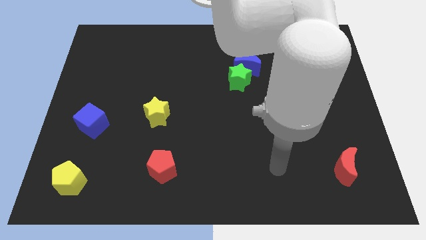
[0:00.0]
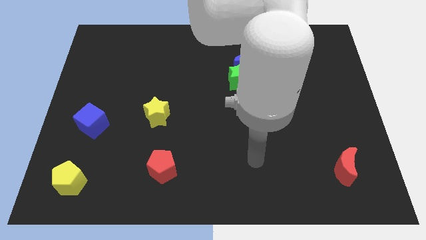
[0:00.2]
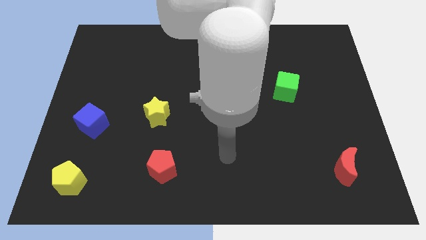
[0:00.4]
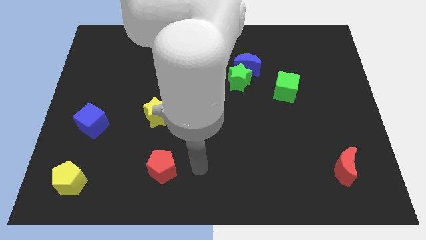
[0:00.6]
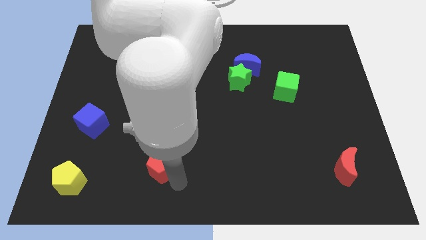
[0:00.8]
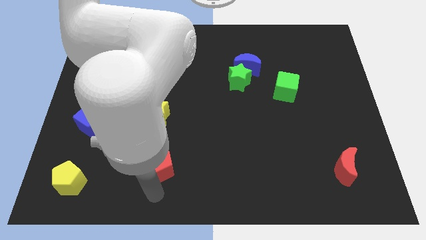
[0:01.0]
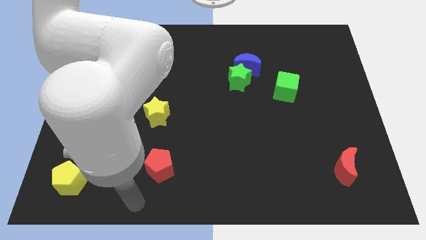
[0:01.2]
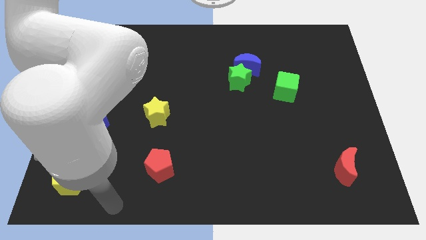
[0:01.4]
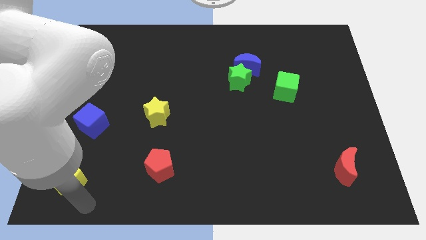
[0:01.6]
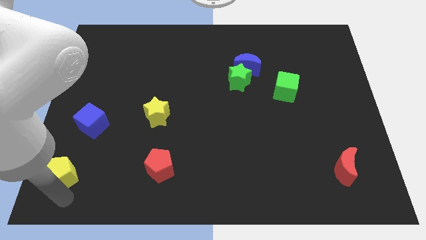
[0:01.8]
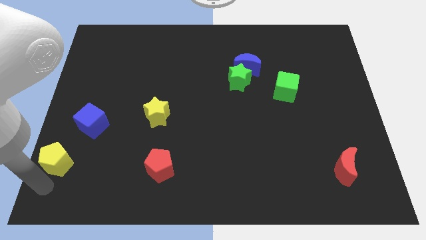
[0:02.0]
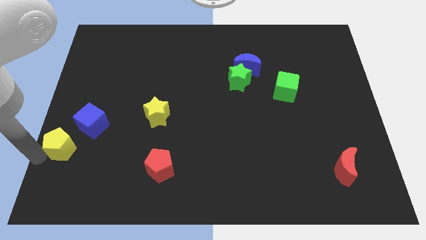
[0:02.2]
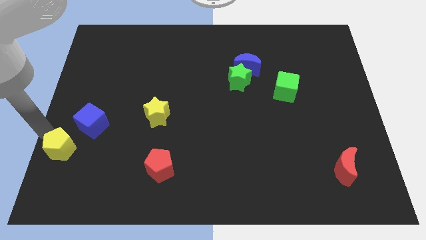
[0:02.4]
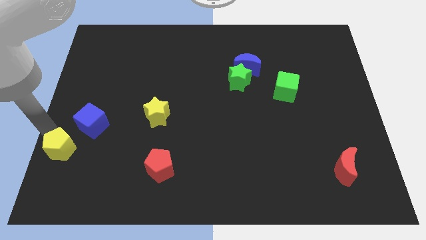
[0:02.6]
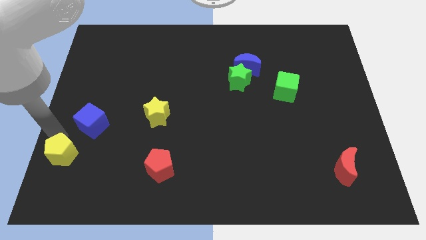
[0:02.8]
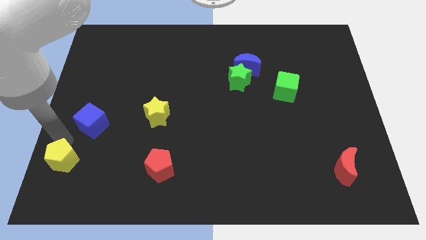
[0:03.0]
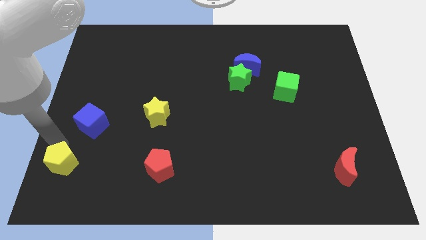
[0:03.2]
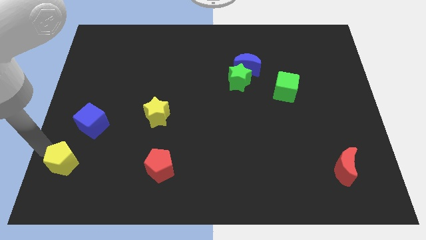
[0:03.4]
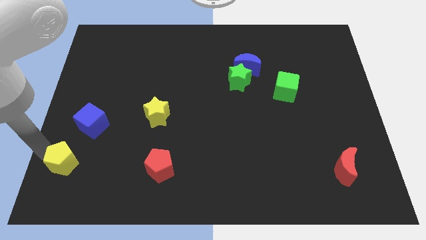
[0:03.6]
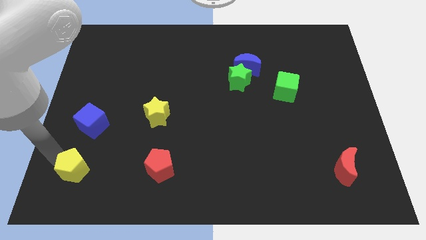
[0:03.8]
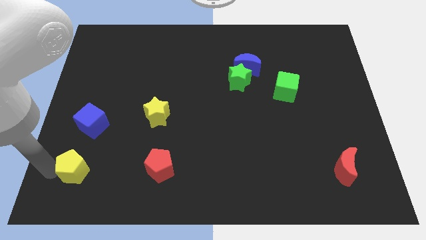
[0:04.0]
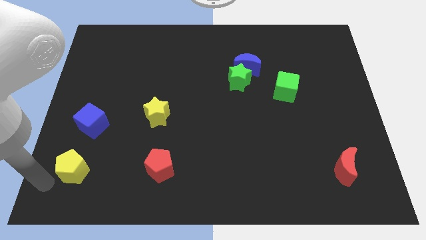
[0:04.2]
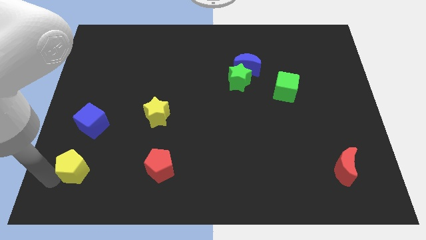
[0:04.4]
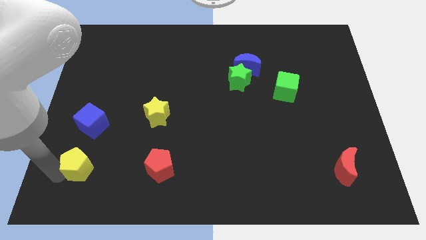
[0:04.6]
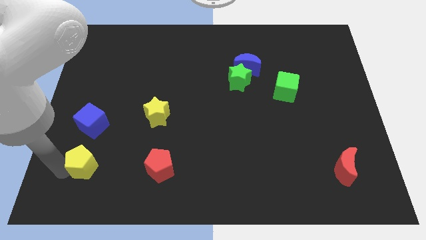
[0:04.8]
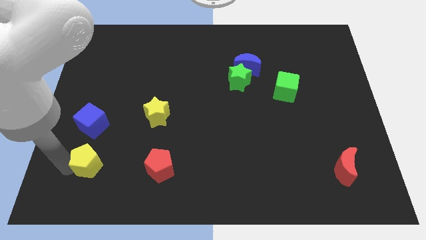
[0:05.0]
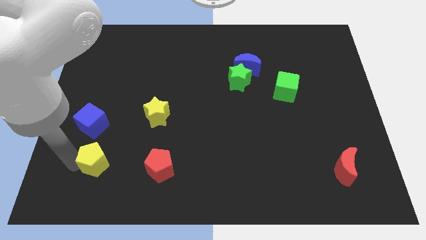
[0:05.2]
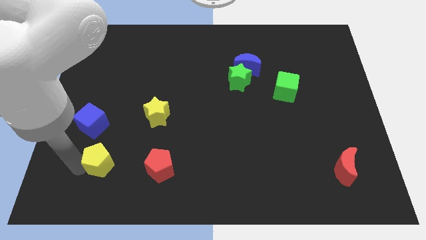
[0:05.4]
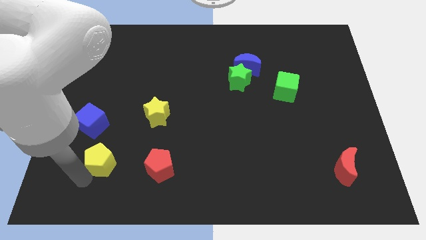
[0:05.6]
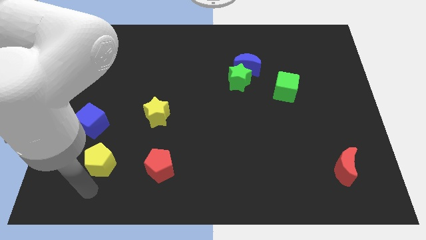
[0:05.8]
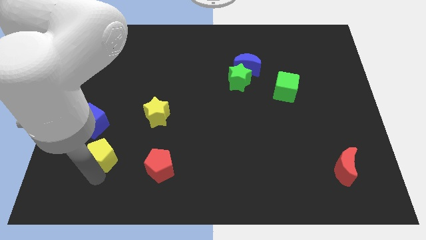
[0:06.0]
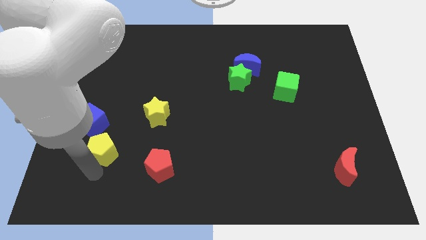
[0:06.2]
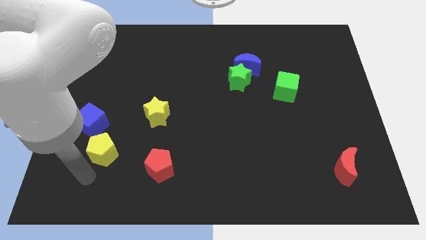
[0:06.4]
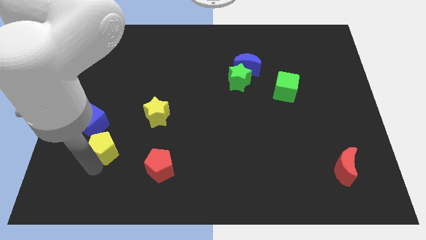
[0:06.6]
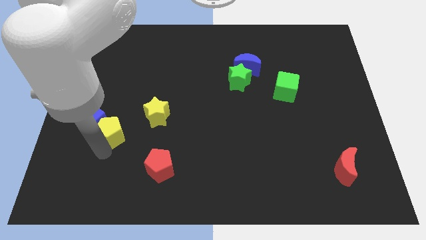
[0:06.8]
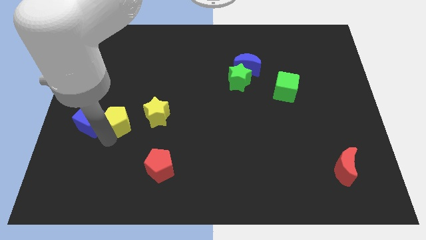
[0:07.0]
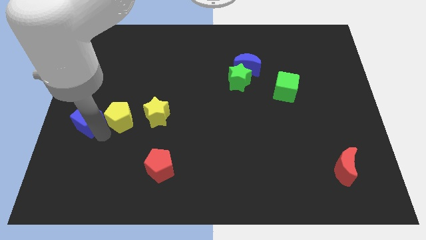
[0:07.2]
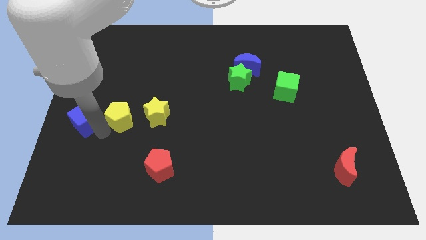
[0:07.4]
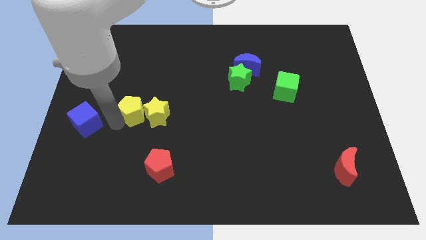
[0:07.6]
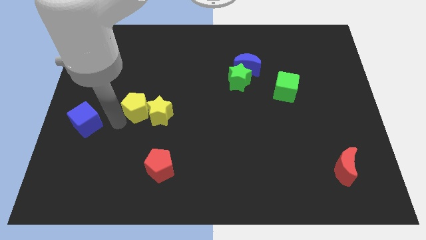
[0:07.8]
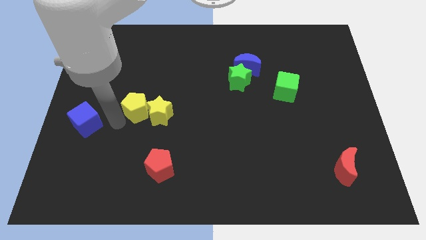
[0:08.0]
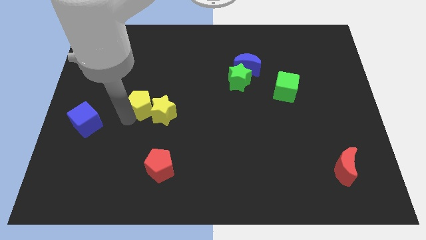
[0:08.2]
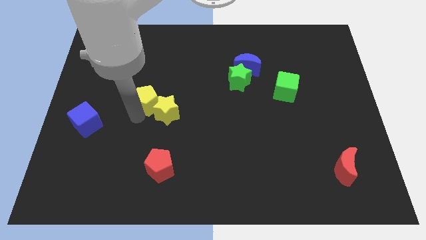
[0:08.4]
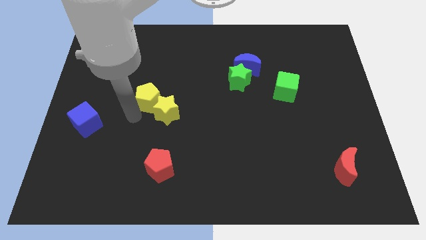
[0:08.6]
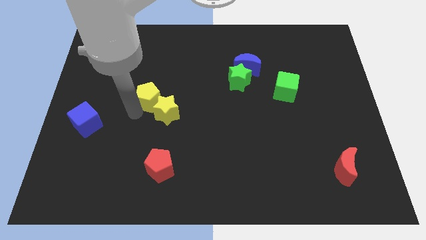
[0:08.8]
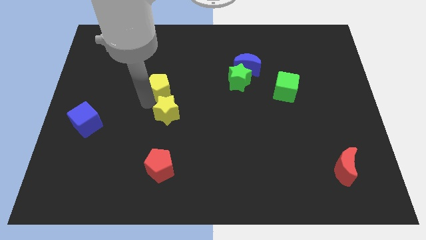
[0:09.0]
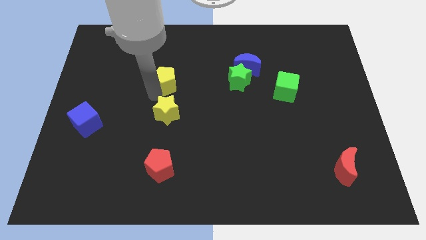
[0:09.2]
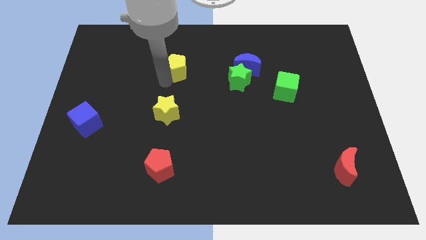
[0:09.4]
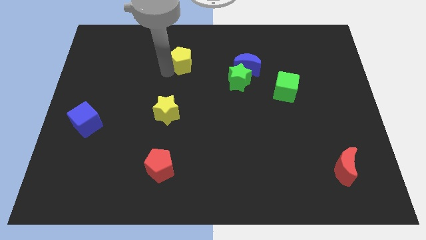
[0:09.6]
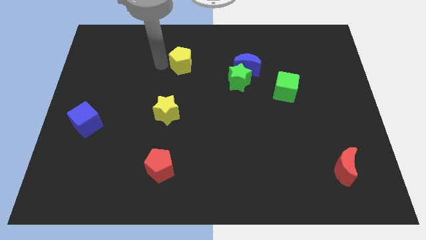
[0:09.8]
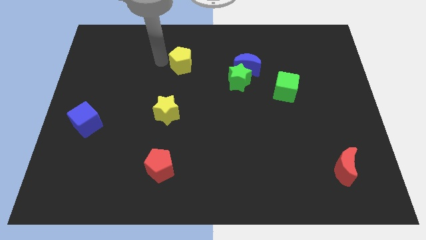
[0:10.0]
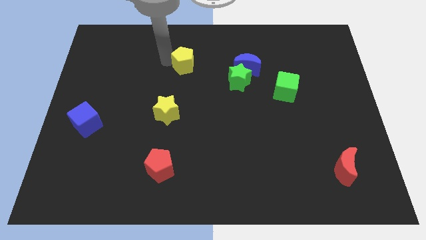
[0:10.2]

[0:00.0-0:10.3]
put the yellow pentagon to the left side of the blue moon

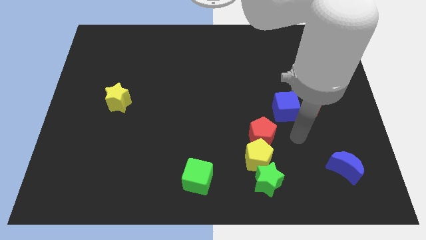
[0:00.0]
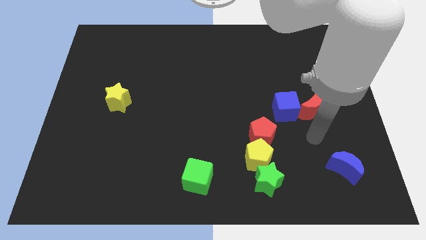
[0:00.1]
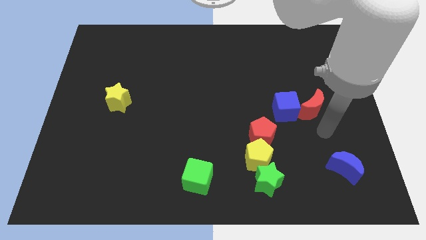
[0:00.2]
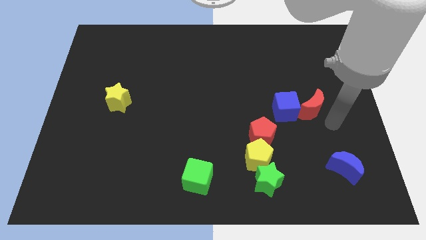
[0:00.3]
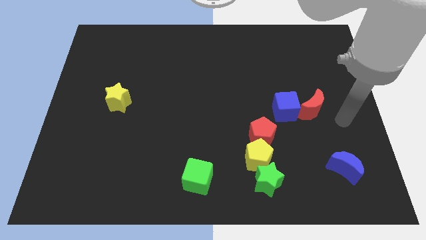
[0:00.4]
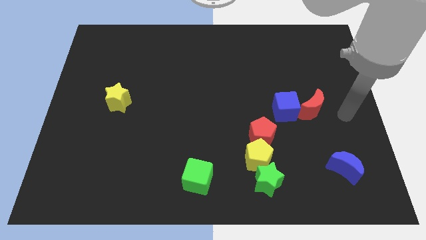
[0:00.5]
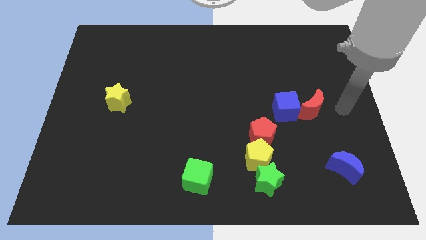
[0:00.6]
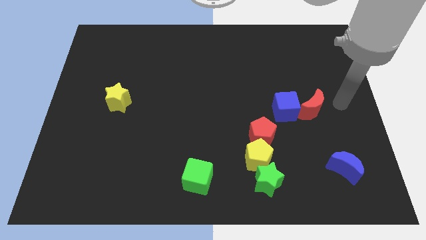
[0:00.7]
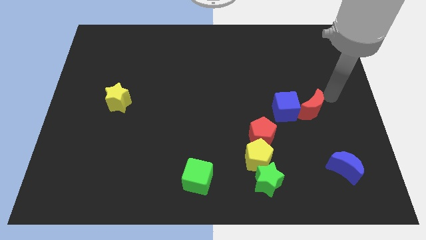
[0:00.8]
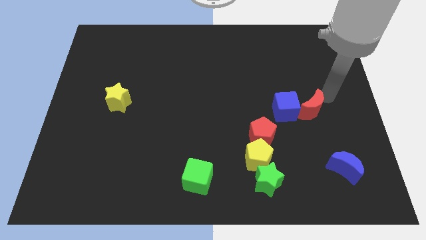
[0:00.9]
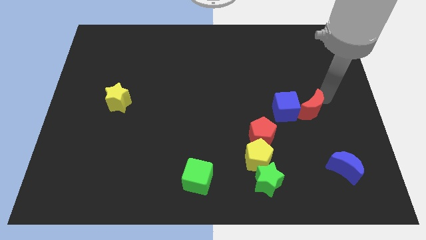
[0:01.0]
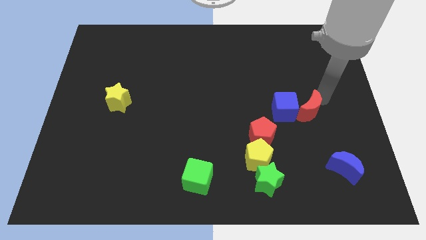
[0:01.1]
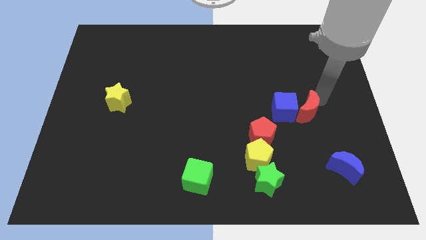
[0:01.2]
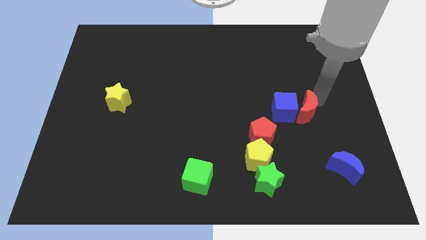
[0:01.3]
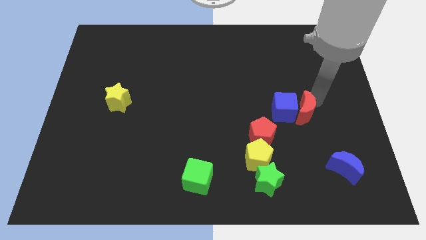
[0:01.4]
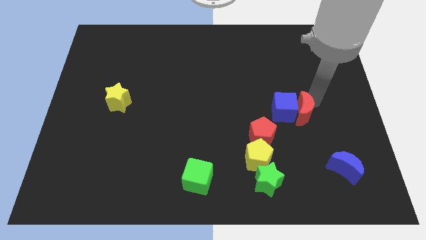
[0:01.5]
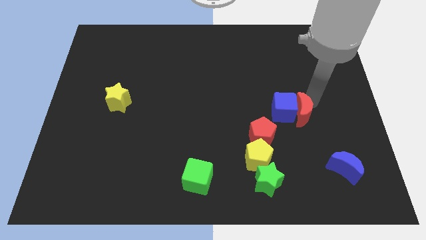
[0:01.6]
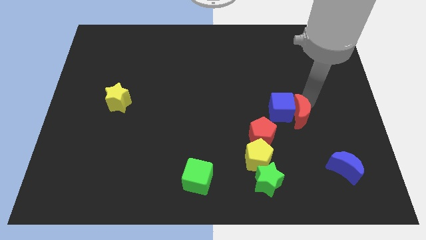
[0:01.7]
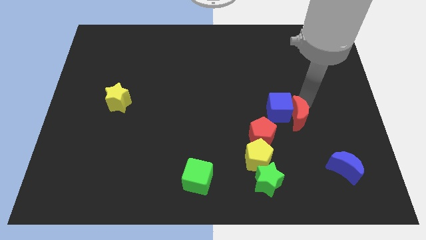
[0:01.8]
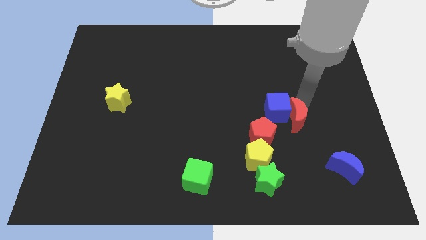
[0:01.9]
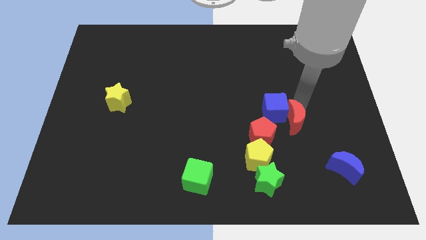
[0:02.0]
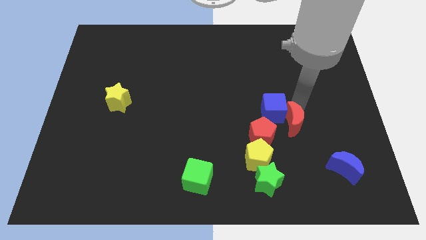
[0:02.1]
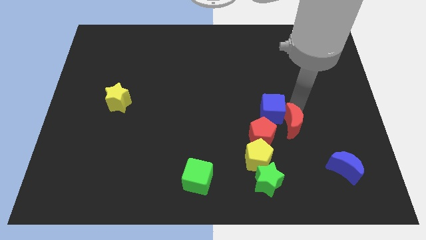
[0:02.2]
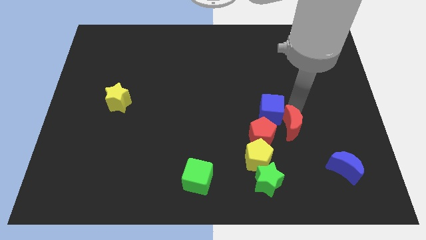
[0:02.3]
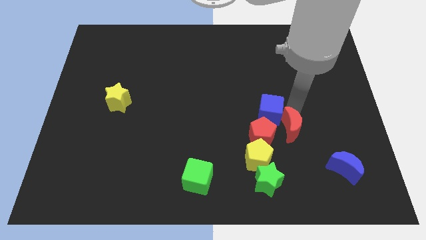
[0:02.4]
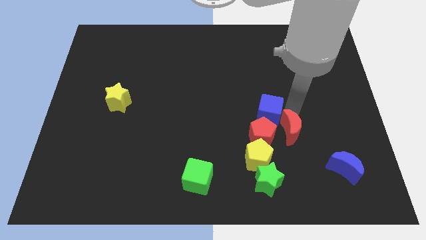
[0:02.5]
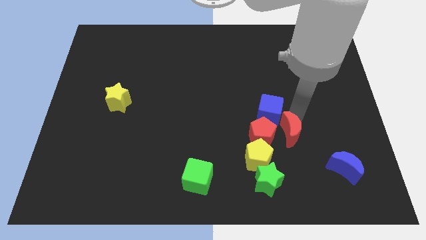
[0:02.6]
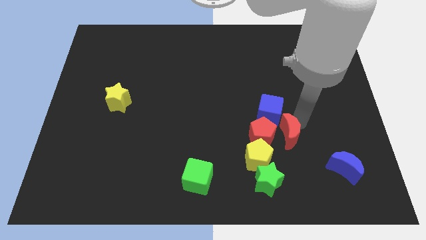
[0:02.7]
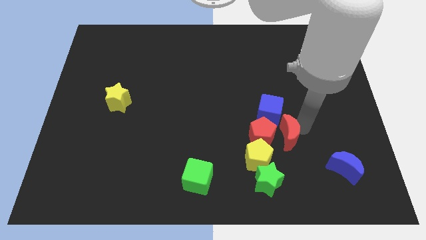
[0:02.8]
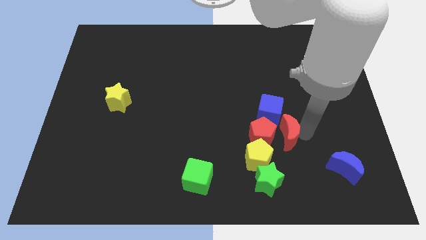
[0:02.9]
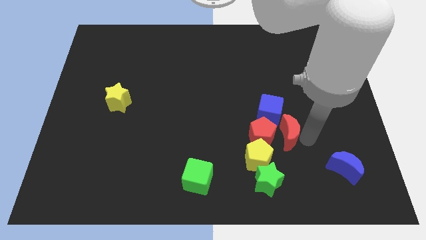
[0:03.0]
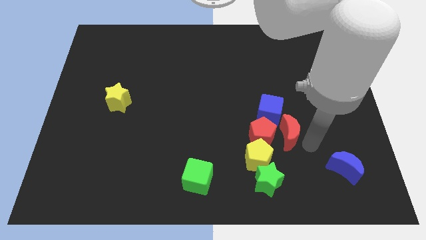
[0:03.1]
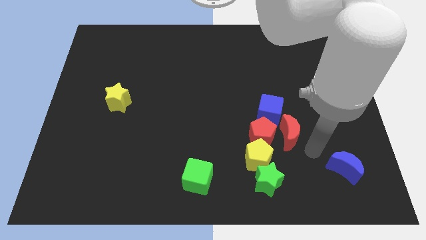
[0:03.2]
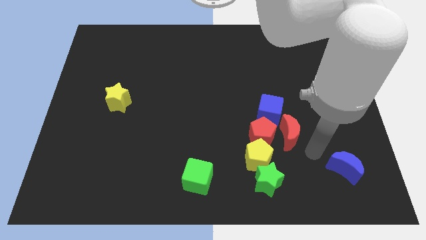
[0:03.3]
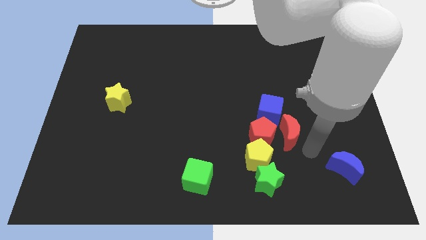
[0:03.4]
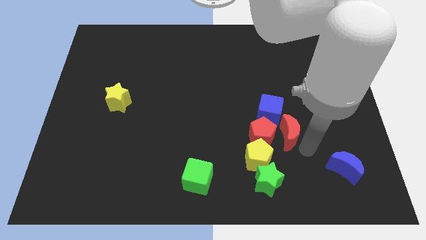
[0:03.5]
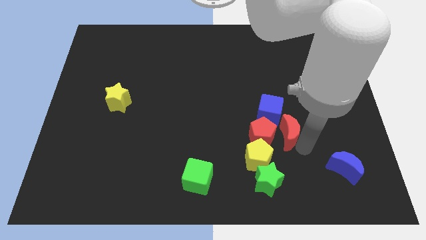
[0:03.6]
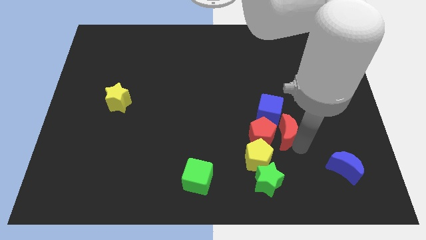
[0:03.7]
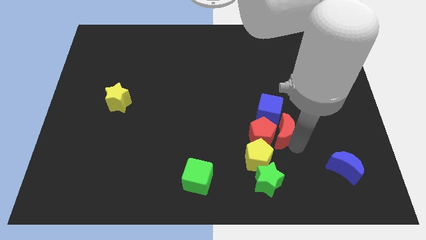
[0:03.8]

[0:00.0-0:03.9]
push the red moon to the top side of the green star
